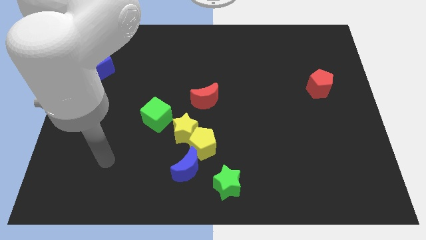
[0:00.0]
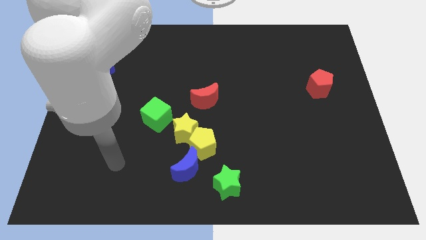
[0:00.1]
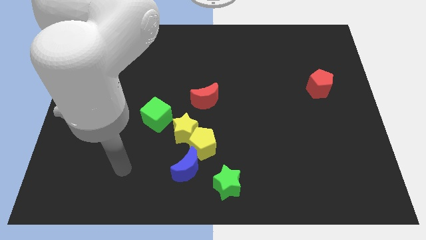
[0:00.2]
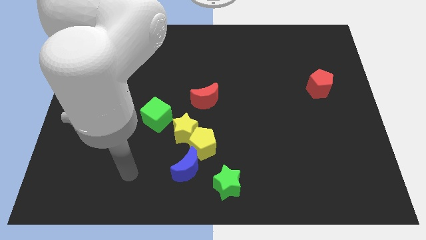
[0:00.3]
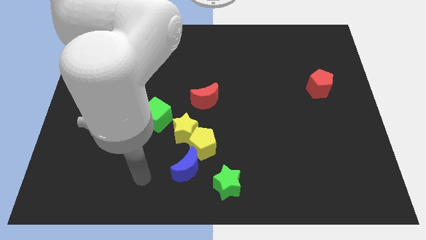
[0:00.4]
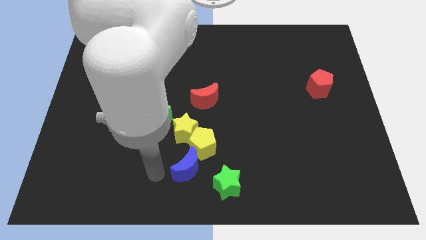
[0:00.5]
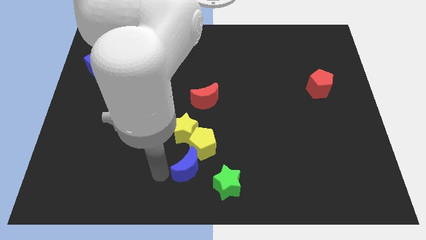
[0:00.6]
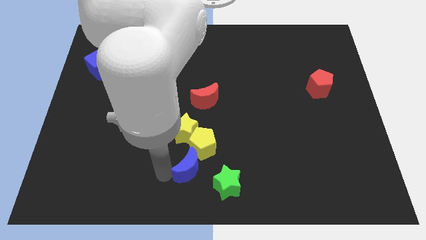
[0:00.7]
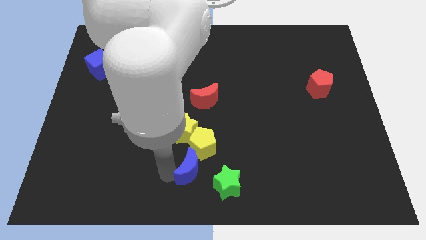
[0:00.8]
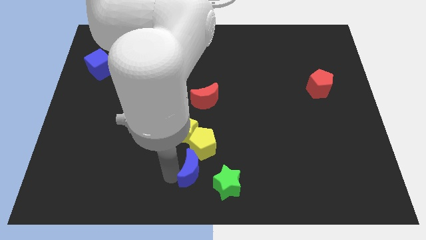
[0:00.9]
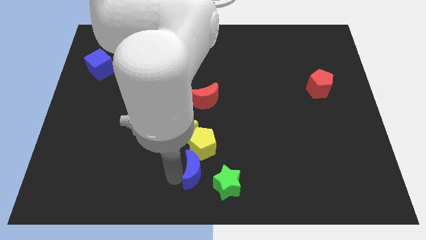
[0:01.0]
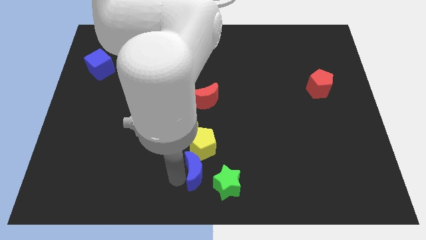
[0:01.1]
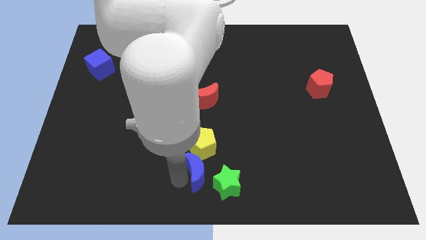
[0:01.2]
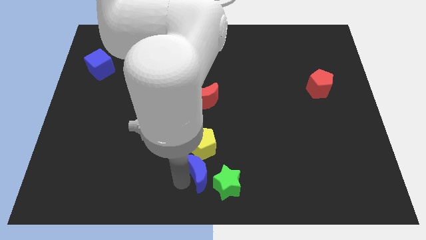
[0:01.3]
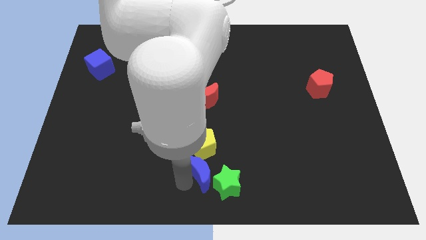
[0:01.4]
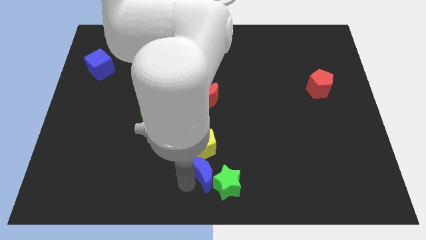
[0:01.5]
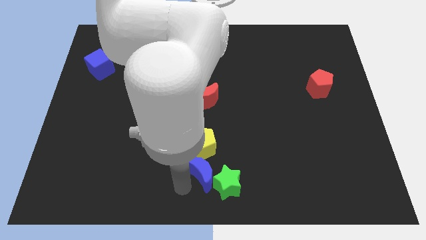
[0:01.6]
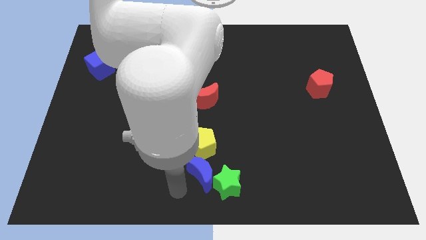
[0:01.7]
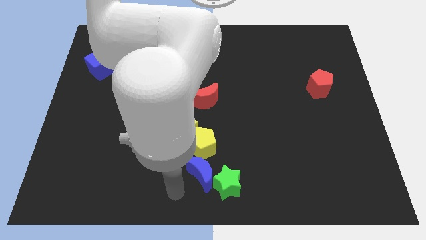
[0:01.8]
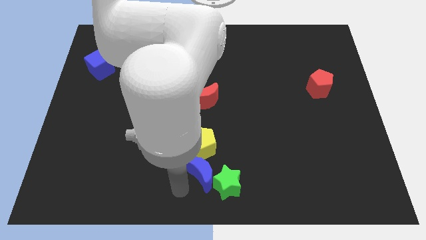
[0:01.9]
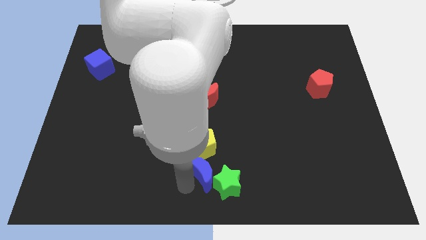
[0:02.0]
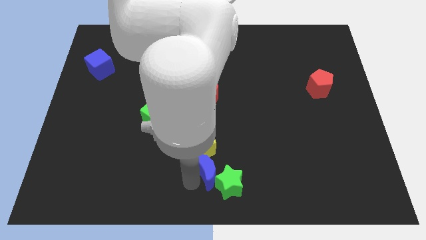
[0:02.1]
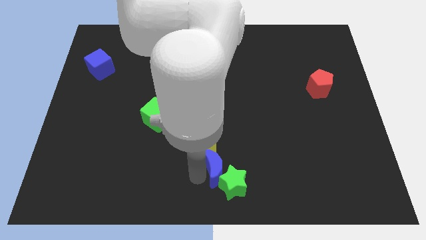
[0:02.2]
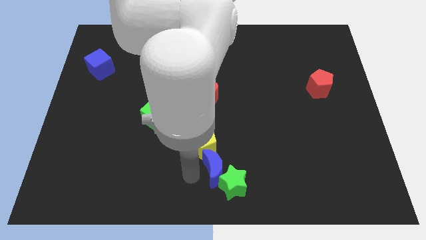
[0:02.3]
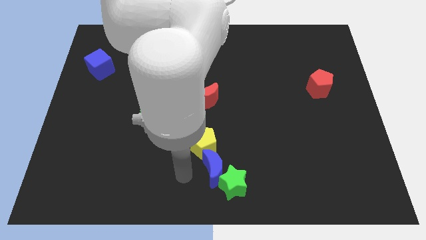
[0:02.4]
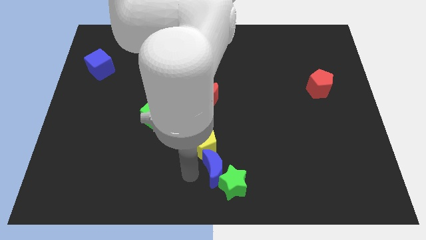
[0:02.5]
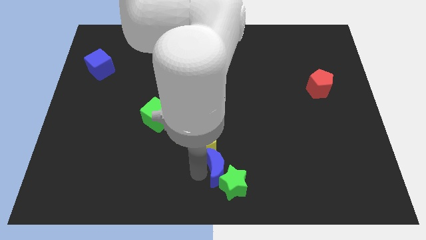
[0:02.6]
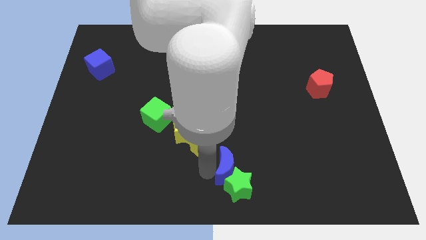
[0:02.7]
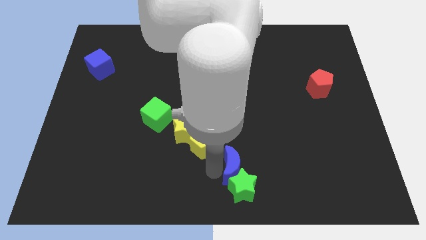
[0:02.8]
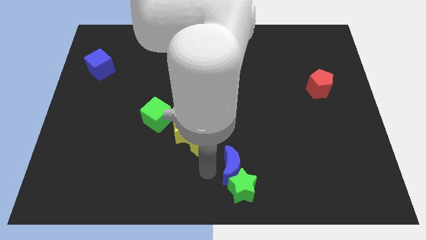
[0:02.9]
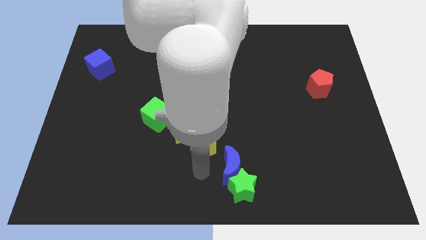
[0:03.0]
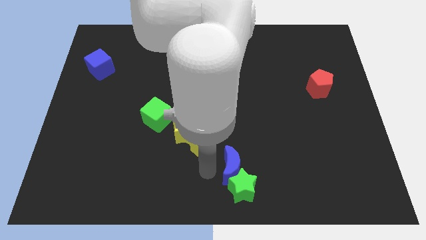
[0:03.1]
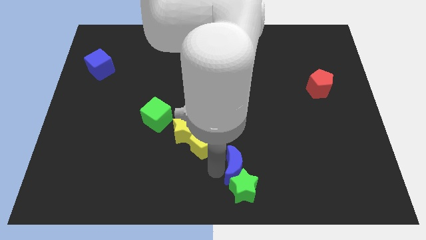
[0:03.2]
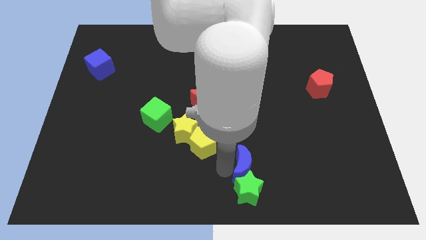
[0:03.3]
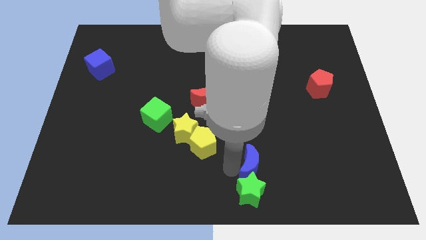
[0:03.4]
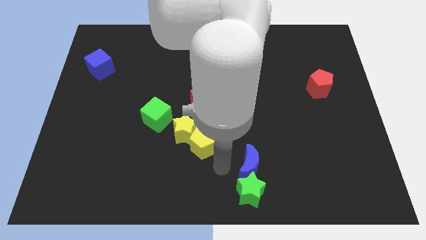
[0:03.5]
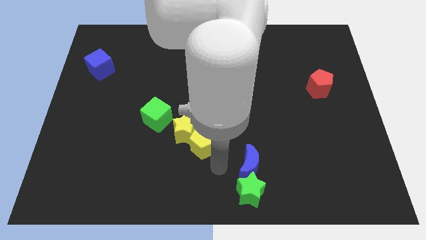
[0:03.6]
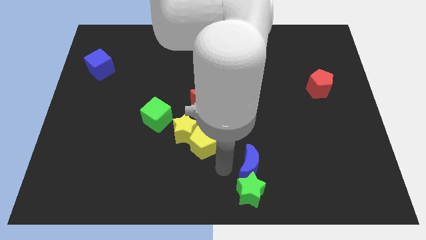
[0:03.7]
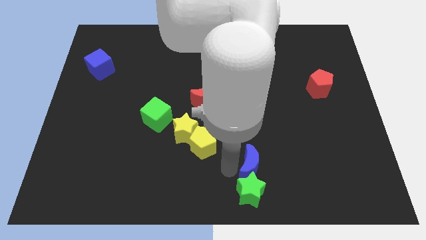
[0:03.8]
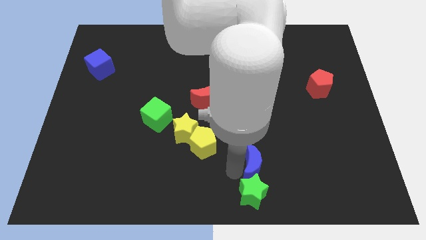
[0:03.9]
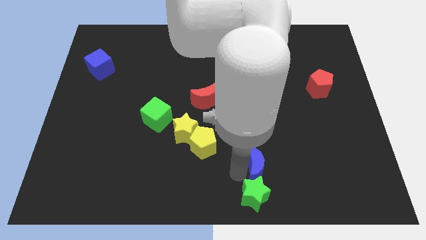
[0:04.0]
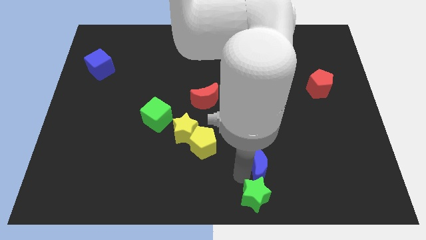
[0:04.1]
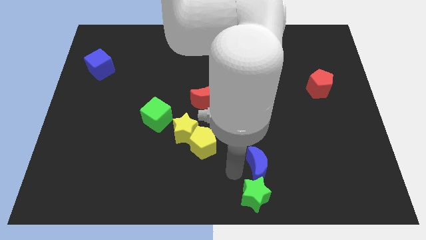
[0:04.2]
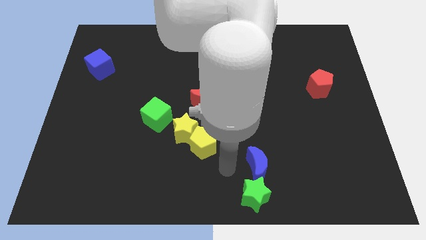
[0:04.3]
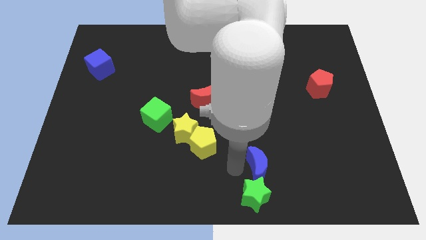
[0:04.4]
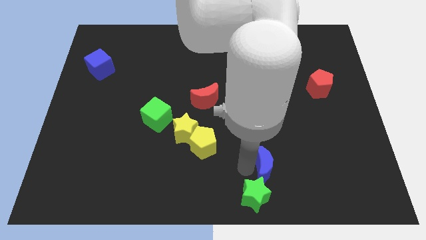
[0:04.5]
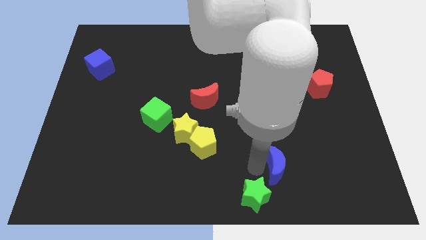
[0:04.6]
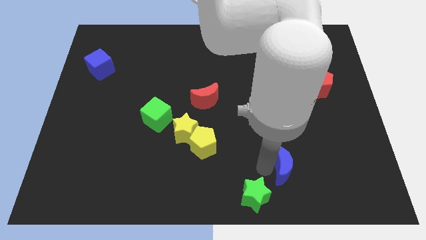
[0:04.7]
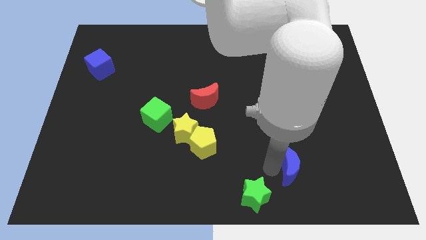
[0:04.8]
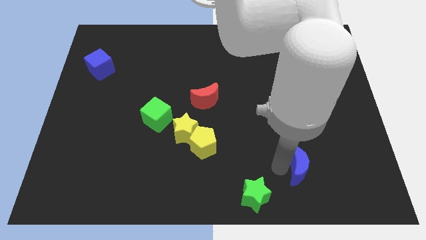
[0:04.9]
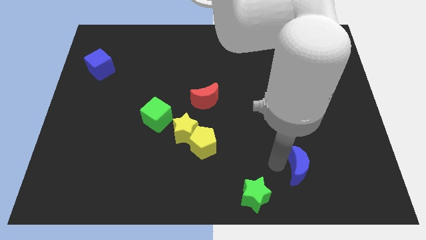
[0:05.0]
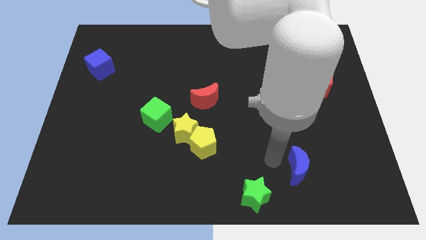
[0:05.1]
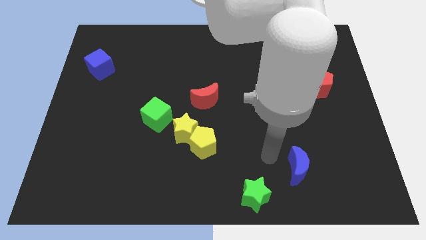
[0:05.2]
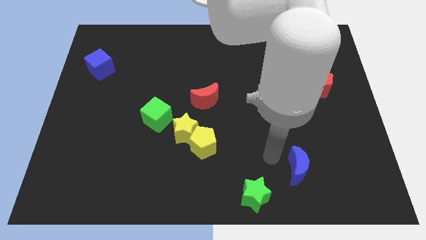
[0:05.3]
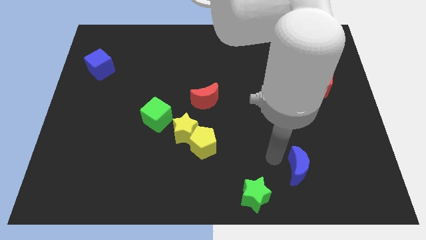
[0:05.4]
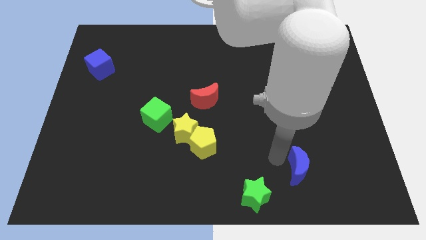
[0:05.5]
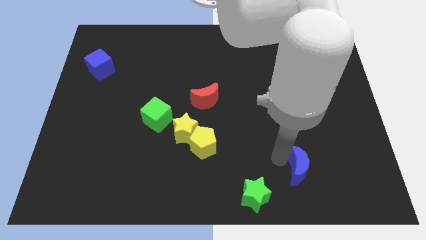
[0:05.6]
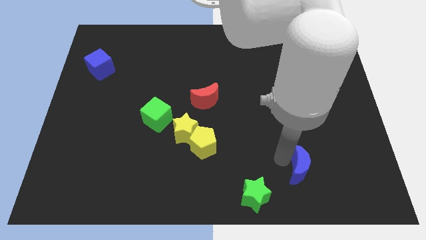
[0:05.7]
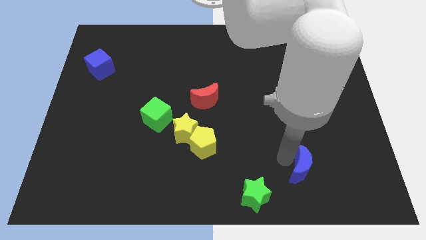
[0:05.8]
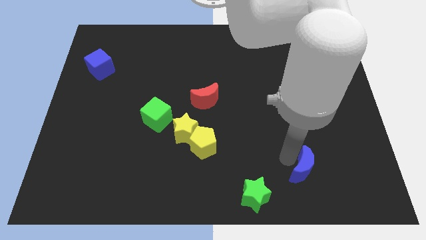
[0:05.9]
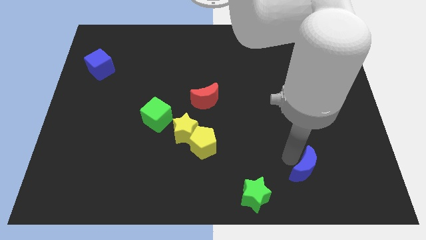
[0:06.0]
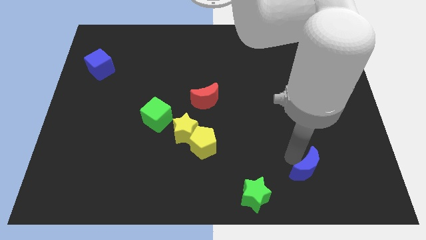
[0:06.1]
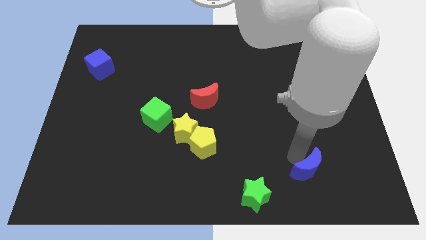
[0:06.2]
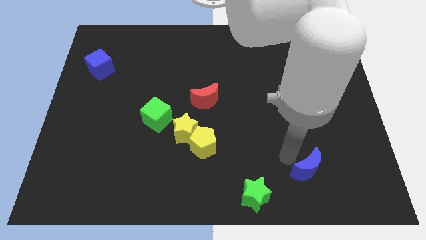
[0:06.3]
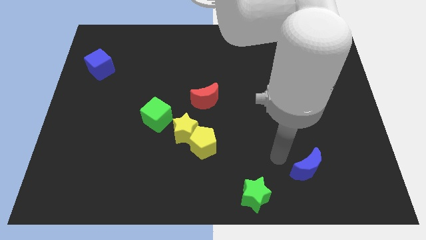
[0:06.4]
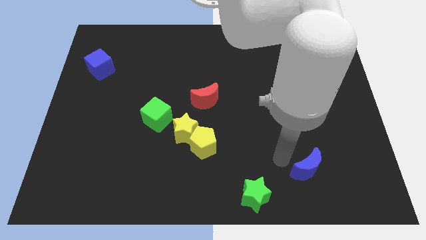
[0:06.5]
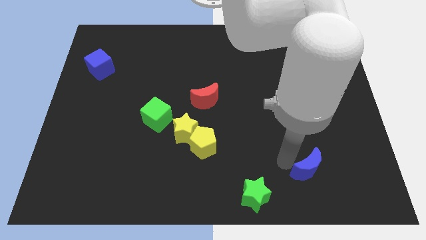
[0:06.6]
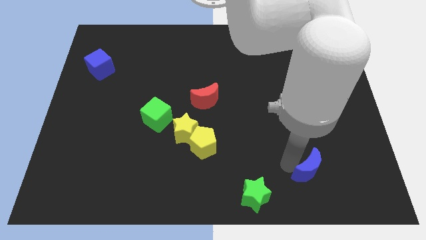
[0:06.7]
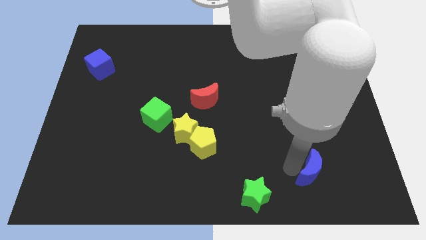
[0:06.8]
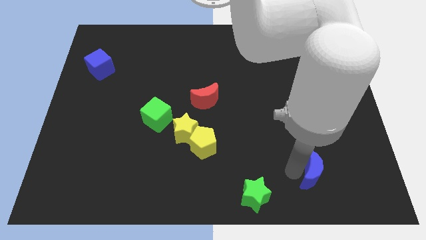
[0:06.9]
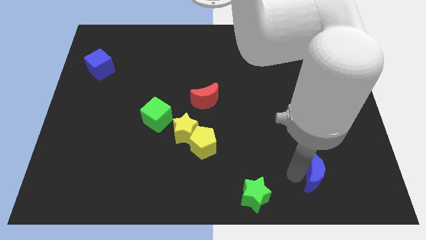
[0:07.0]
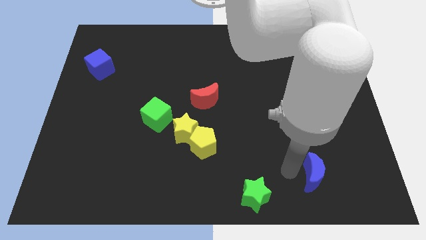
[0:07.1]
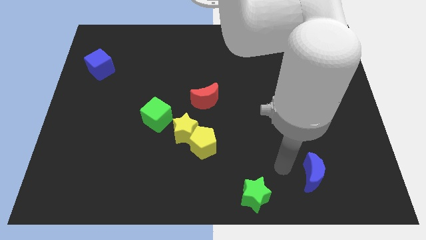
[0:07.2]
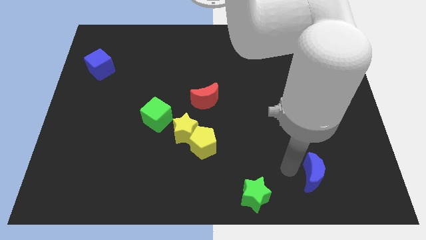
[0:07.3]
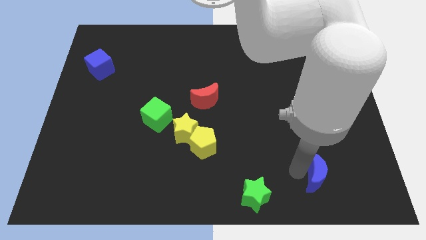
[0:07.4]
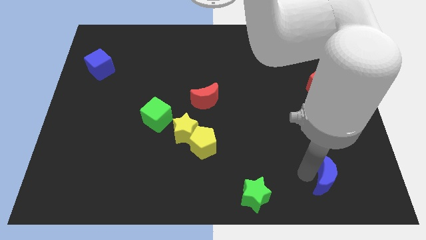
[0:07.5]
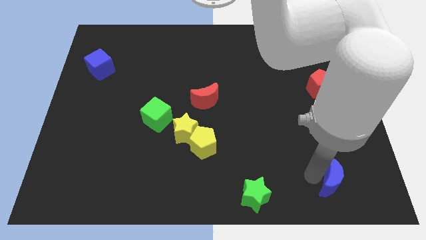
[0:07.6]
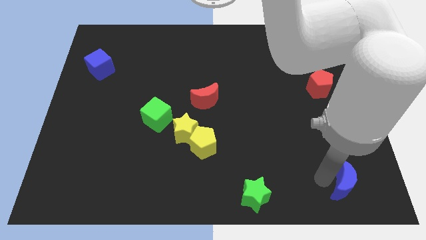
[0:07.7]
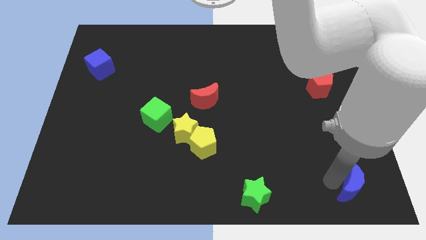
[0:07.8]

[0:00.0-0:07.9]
push the blue moon to the bottom right corner
